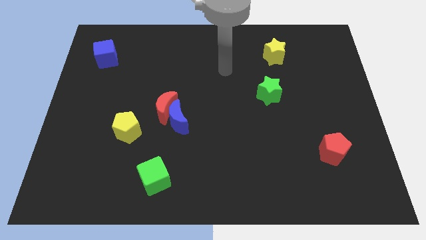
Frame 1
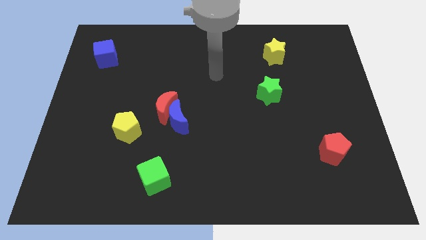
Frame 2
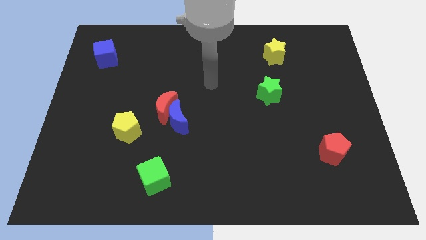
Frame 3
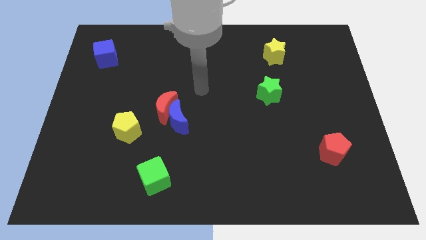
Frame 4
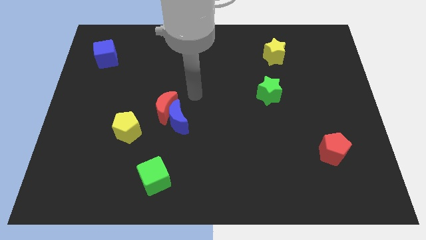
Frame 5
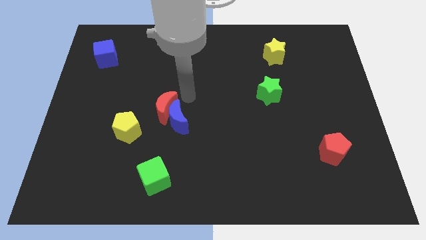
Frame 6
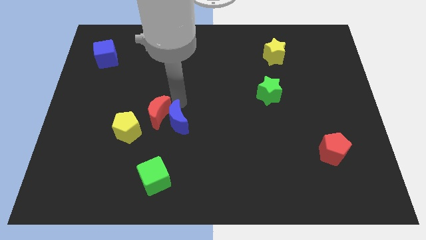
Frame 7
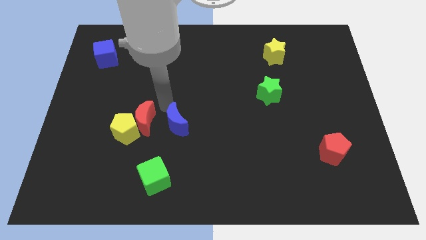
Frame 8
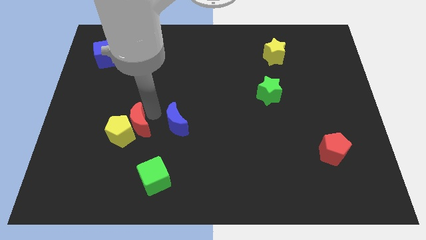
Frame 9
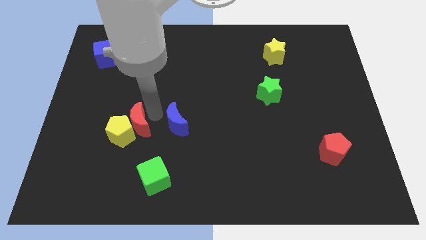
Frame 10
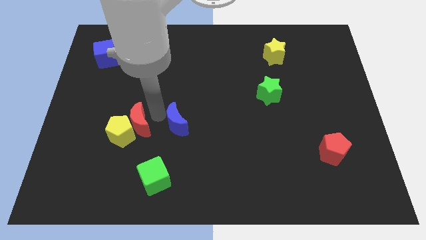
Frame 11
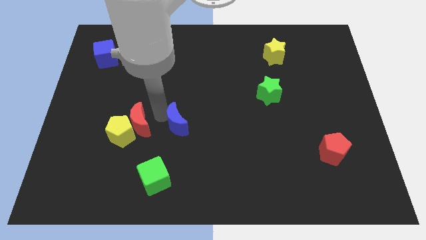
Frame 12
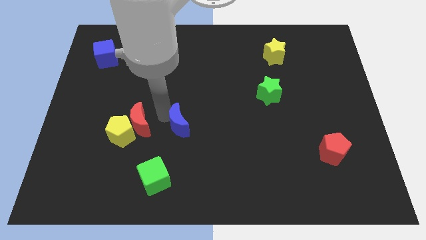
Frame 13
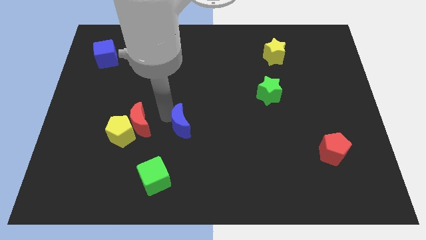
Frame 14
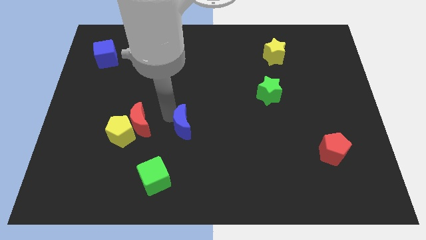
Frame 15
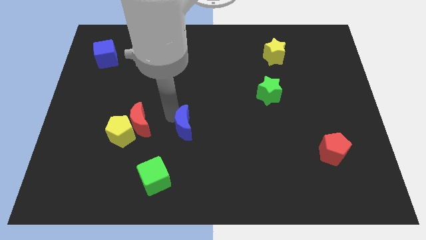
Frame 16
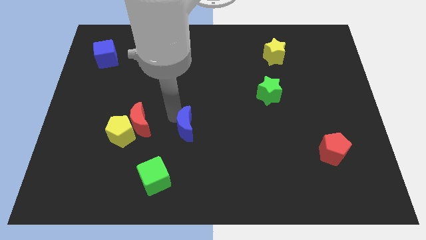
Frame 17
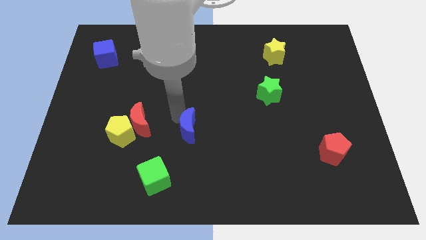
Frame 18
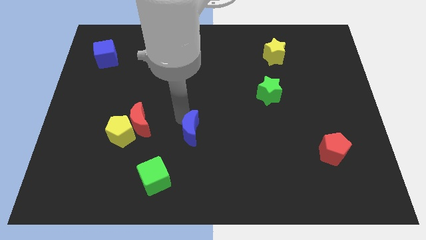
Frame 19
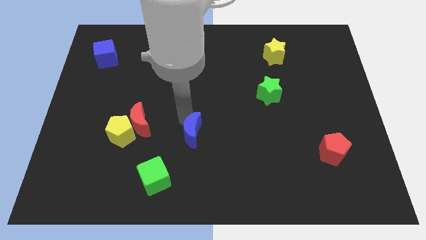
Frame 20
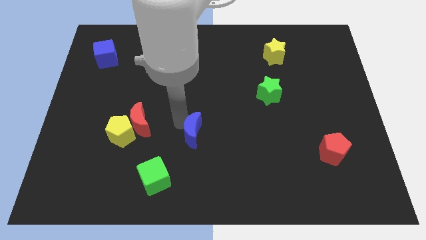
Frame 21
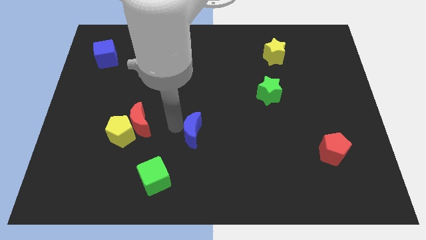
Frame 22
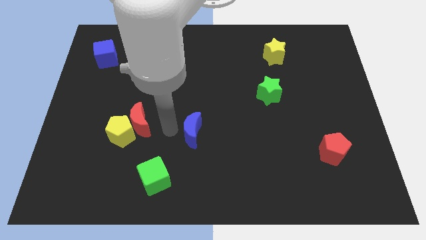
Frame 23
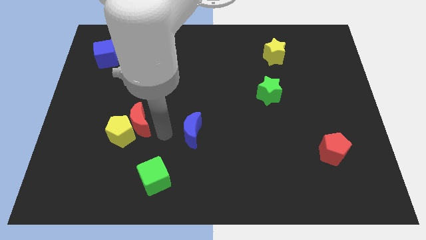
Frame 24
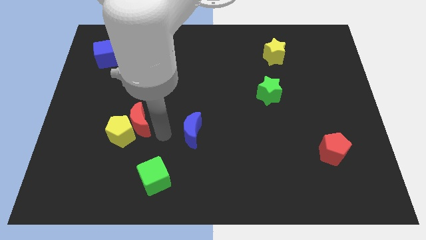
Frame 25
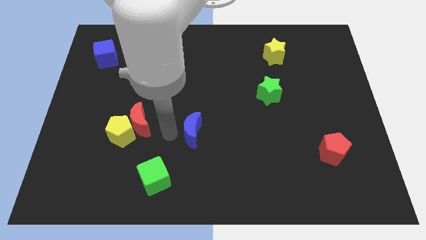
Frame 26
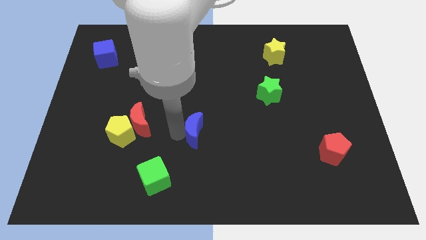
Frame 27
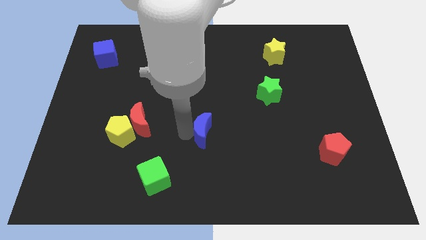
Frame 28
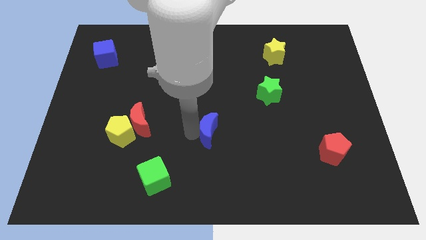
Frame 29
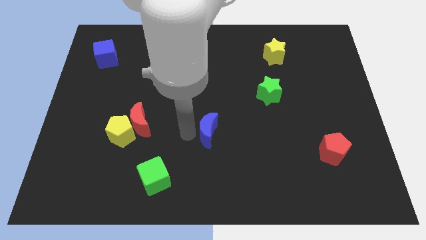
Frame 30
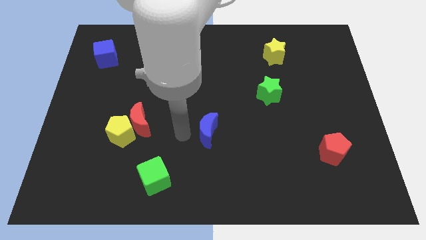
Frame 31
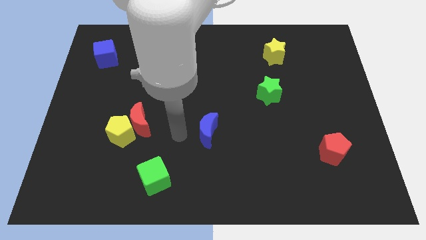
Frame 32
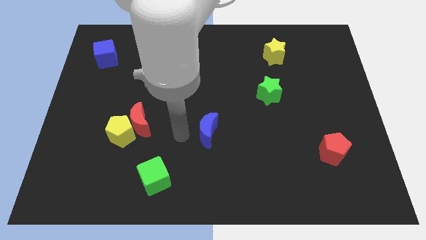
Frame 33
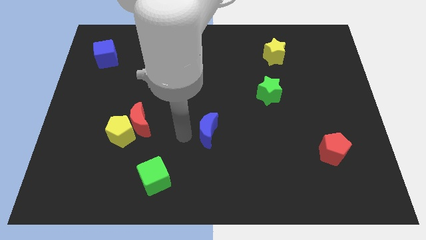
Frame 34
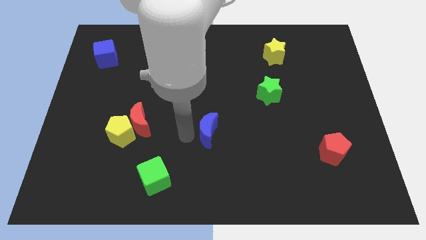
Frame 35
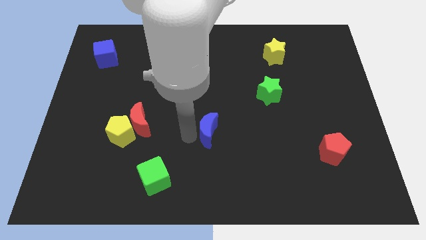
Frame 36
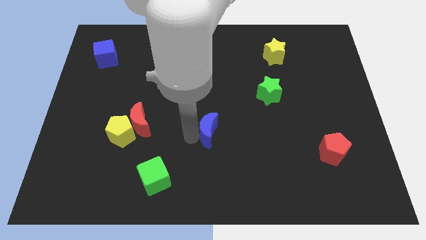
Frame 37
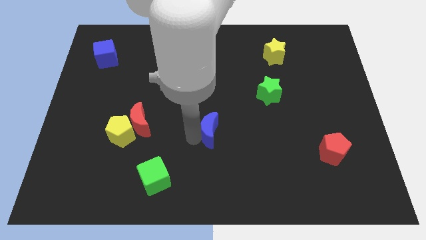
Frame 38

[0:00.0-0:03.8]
slightly slide the blue moon to the right

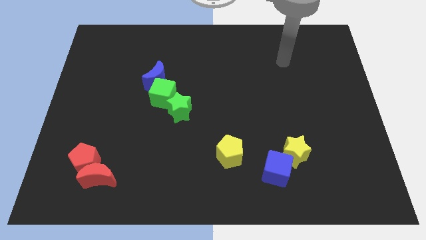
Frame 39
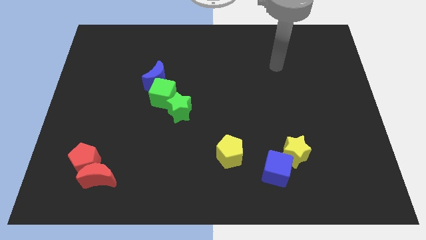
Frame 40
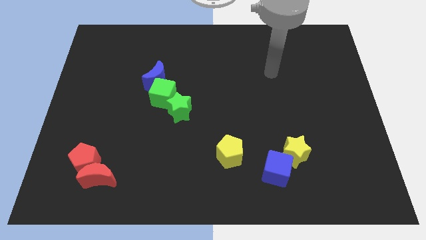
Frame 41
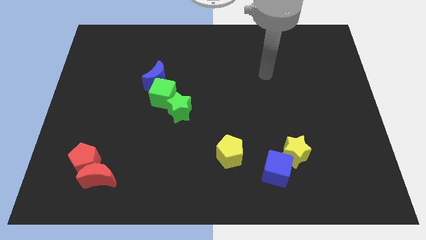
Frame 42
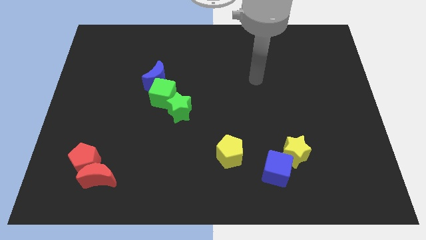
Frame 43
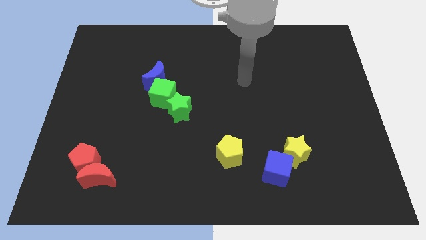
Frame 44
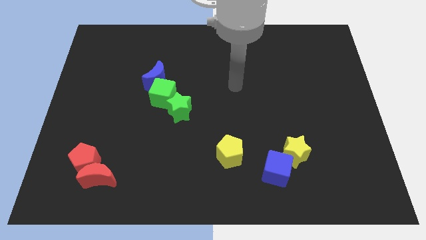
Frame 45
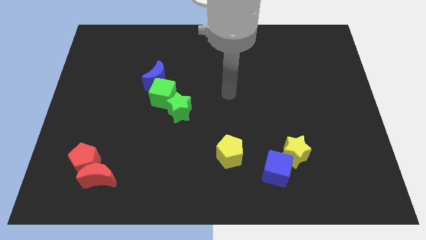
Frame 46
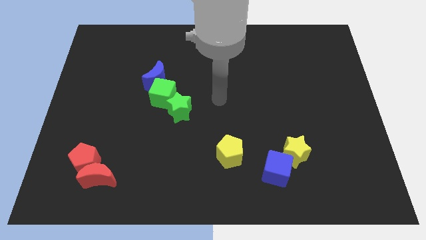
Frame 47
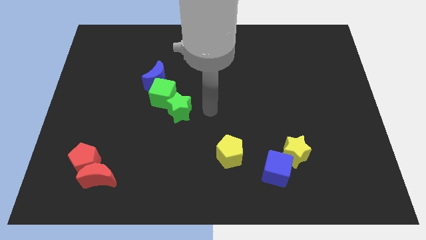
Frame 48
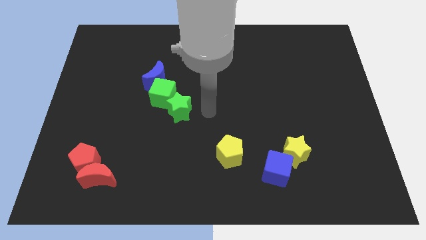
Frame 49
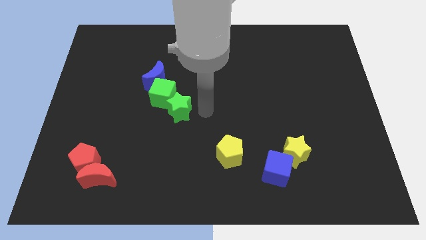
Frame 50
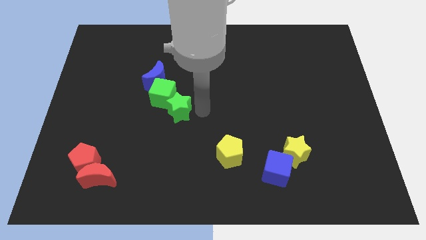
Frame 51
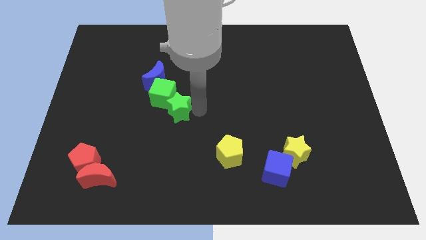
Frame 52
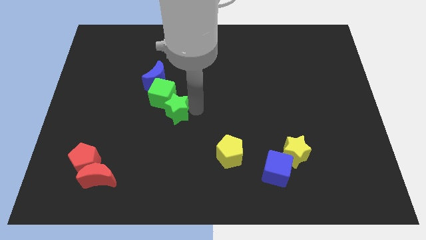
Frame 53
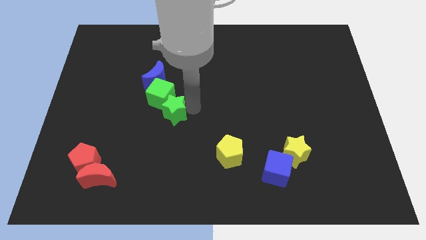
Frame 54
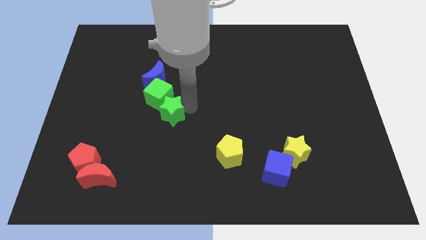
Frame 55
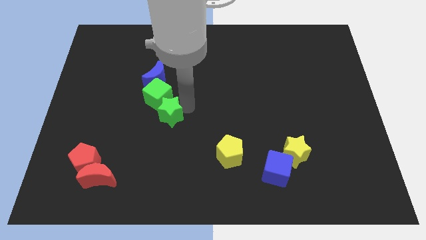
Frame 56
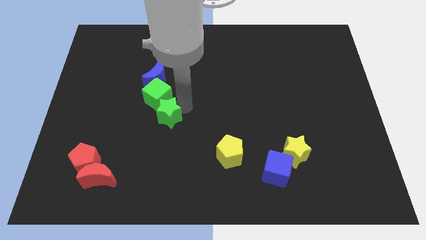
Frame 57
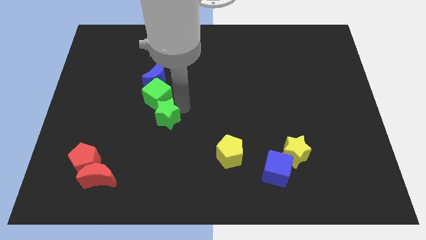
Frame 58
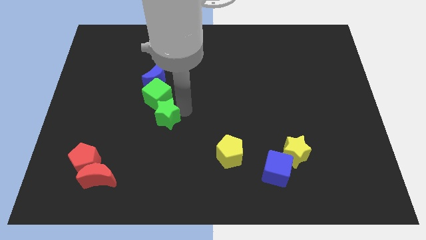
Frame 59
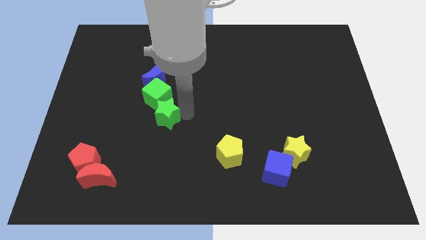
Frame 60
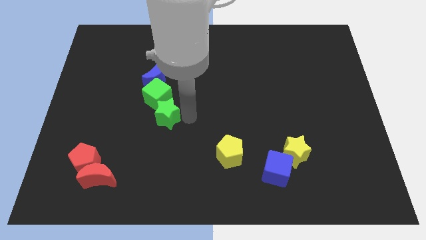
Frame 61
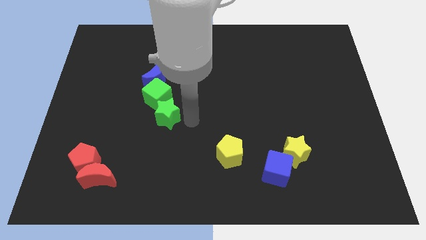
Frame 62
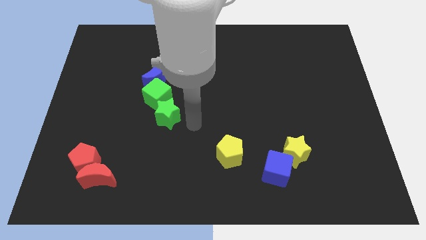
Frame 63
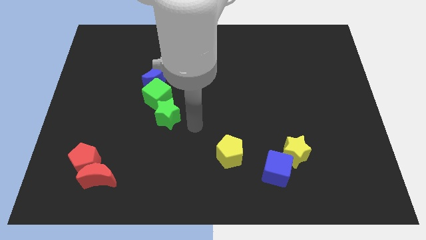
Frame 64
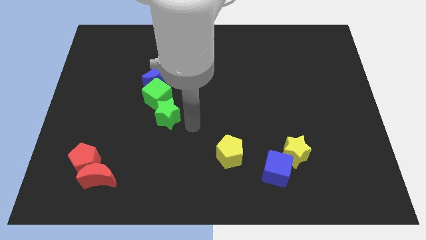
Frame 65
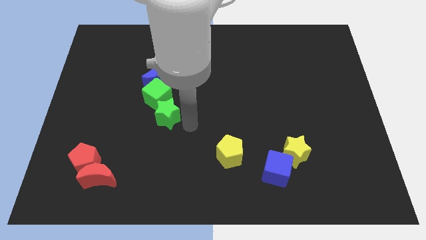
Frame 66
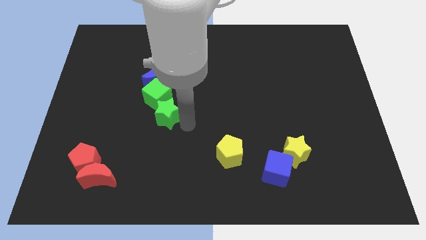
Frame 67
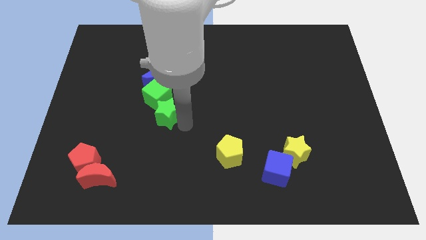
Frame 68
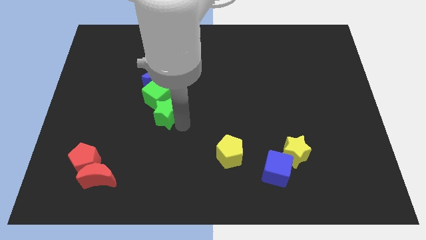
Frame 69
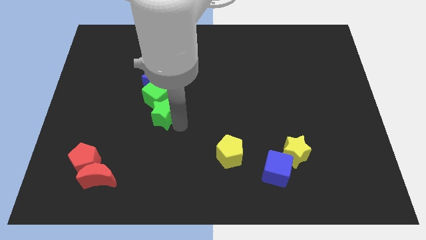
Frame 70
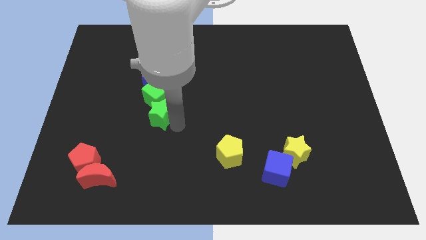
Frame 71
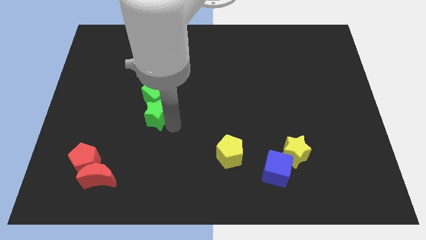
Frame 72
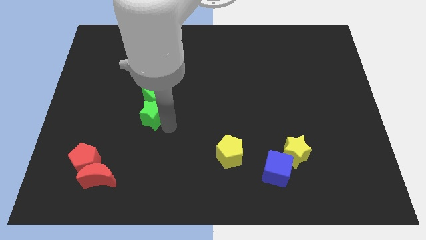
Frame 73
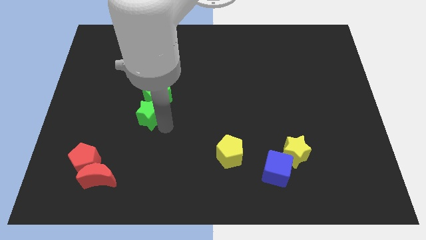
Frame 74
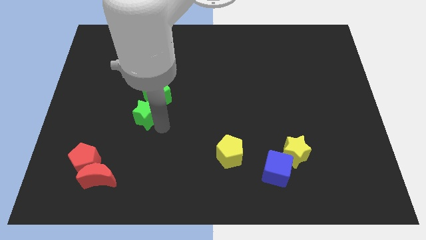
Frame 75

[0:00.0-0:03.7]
push the green star to the left a bit

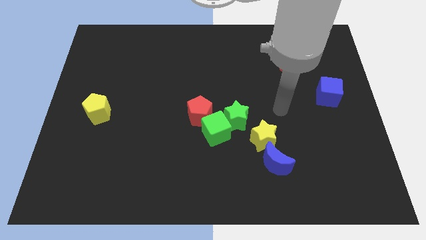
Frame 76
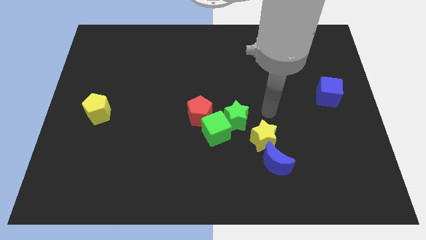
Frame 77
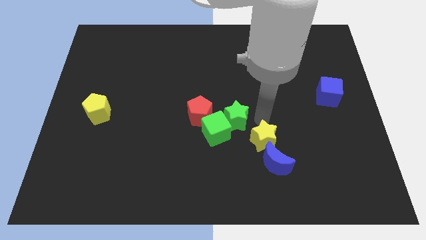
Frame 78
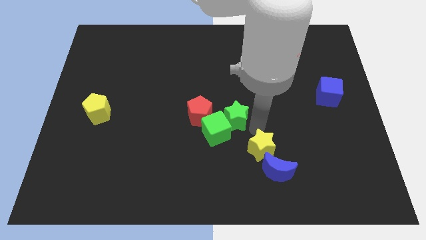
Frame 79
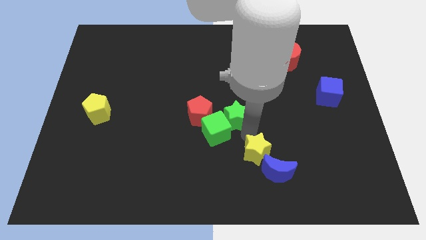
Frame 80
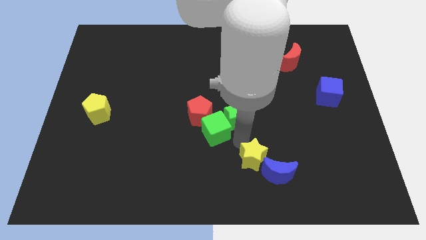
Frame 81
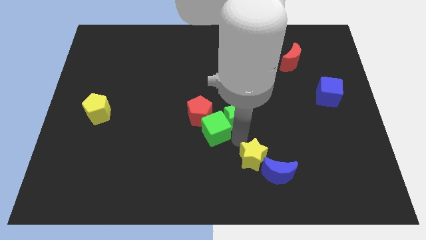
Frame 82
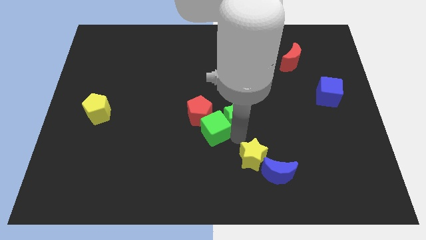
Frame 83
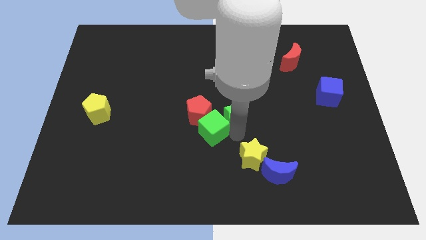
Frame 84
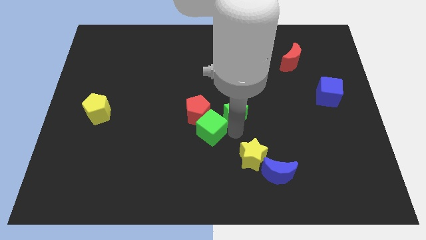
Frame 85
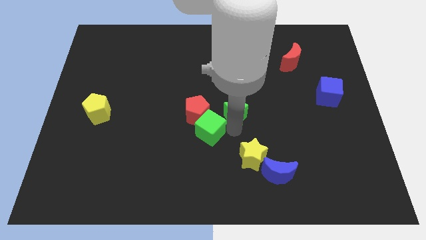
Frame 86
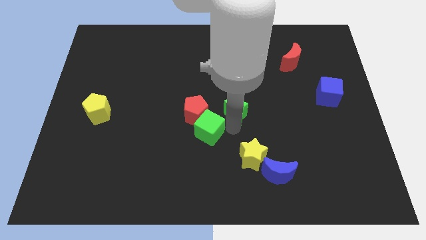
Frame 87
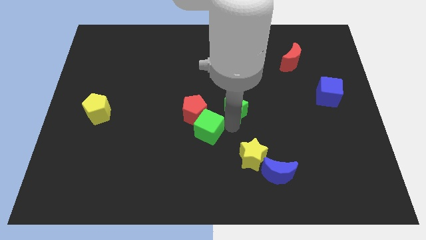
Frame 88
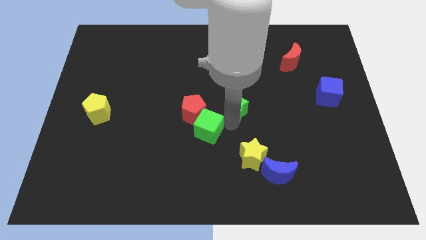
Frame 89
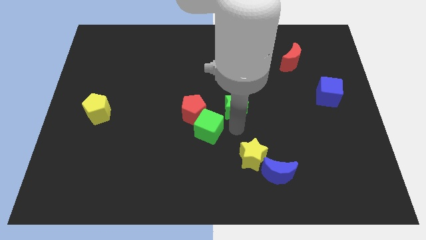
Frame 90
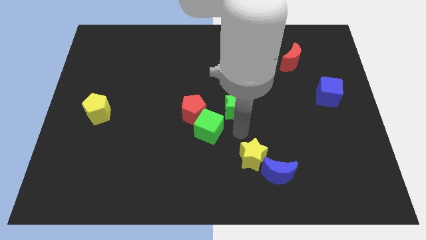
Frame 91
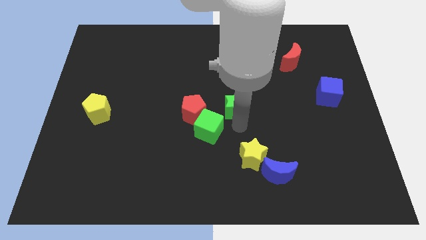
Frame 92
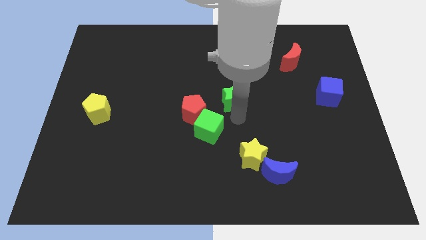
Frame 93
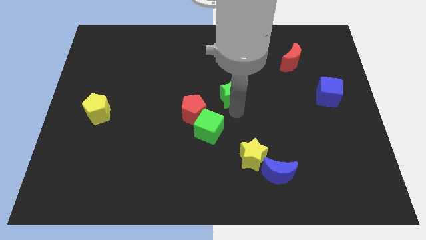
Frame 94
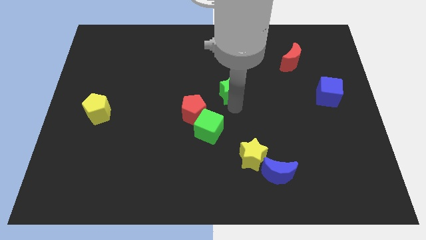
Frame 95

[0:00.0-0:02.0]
slide the green star somewhat up
